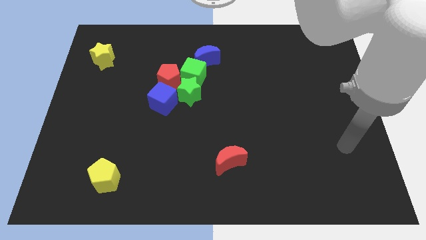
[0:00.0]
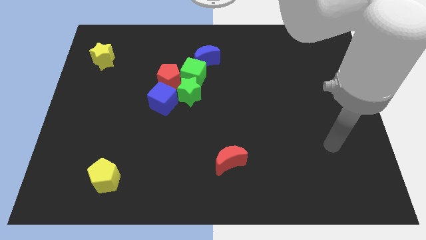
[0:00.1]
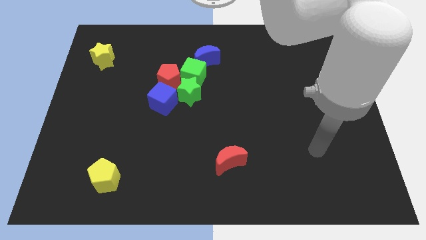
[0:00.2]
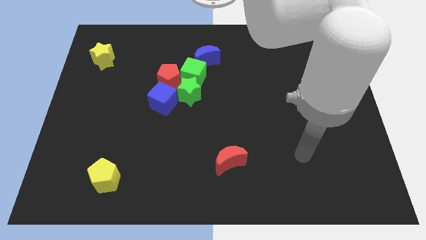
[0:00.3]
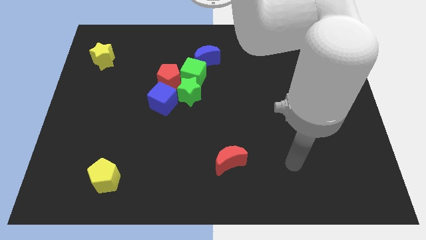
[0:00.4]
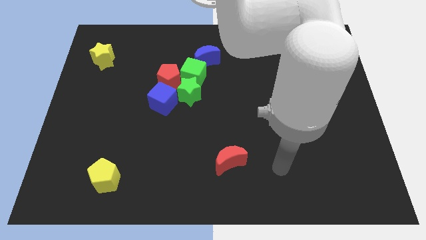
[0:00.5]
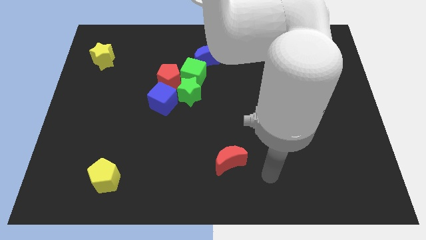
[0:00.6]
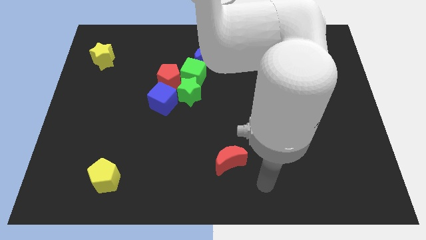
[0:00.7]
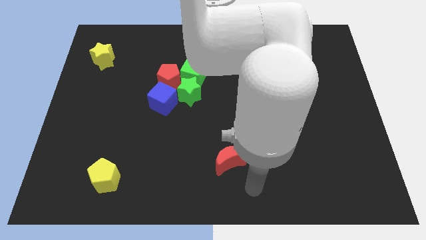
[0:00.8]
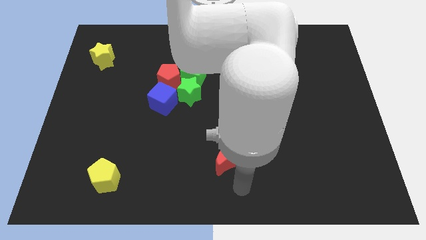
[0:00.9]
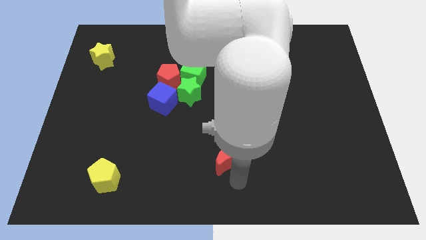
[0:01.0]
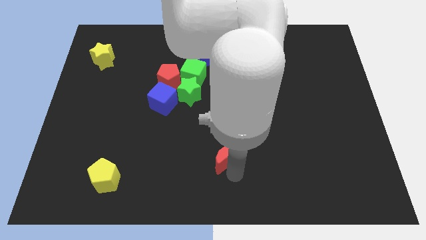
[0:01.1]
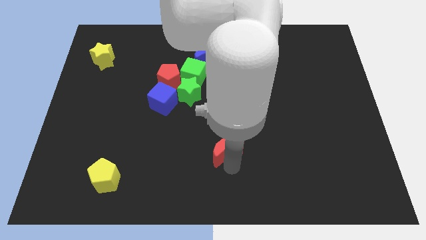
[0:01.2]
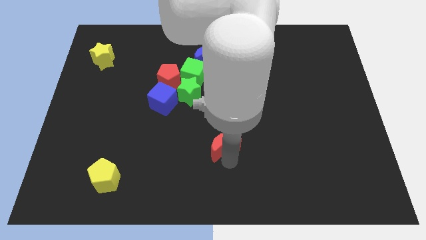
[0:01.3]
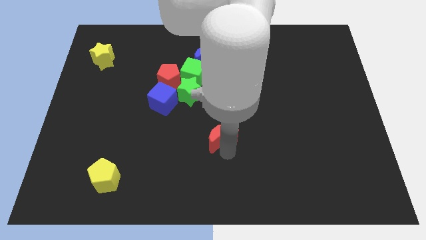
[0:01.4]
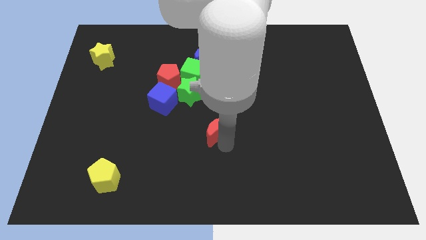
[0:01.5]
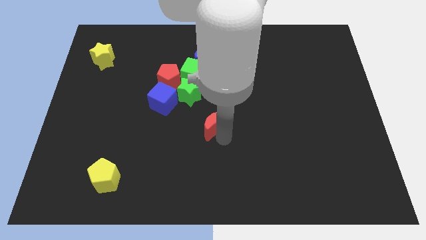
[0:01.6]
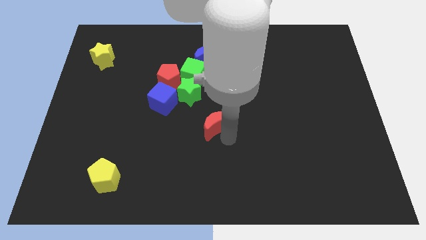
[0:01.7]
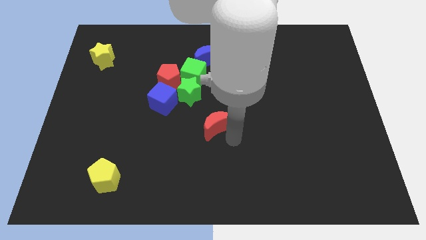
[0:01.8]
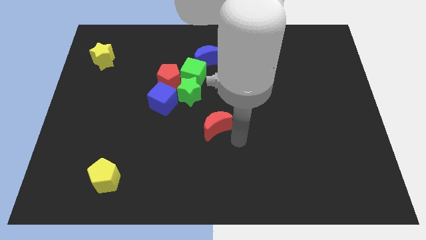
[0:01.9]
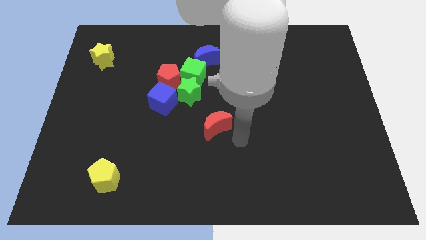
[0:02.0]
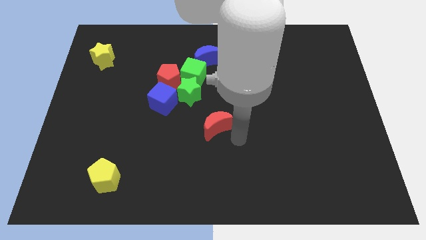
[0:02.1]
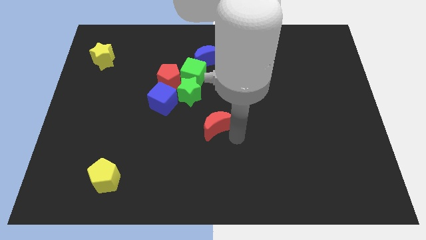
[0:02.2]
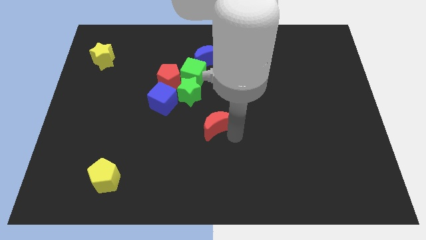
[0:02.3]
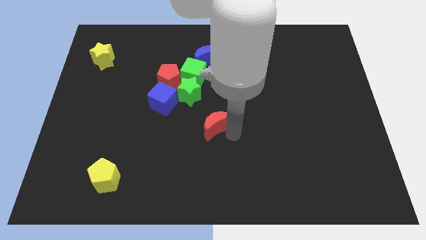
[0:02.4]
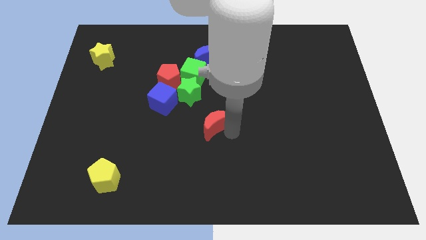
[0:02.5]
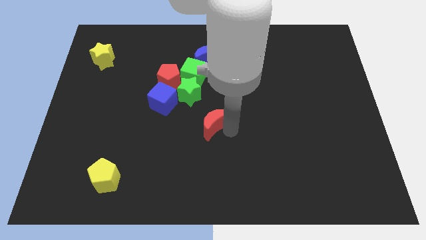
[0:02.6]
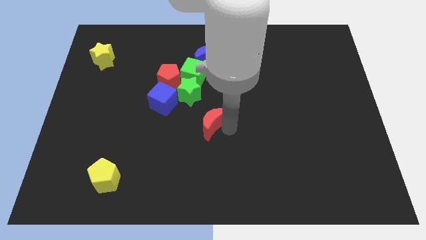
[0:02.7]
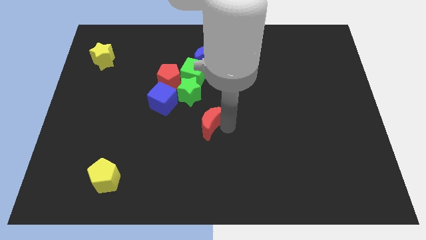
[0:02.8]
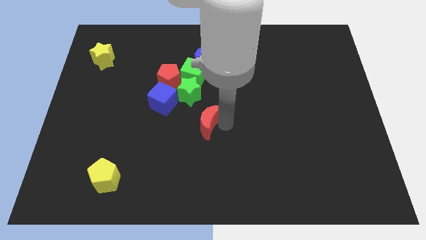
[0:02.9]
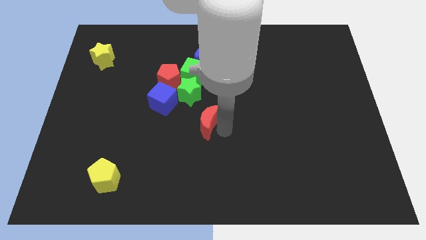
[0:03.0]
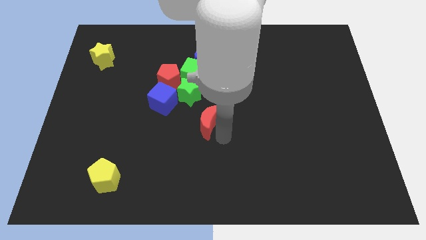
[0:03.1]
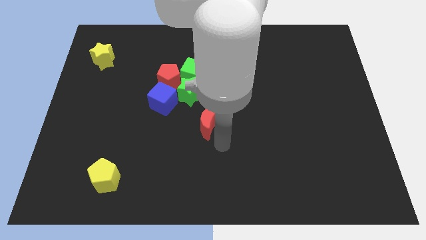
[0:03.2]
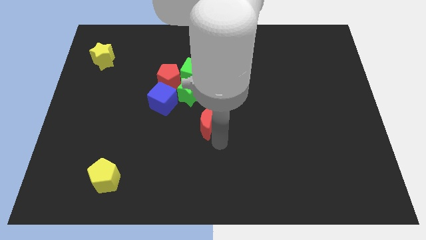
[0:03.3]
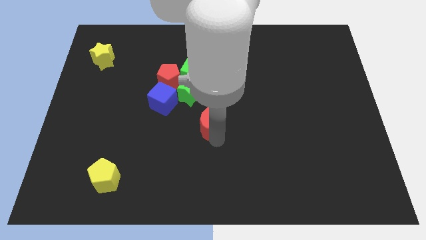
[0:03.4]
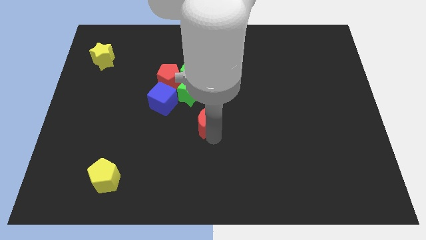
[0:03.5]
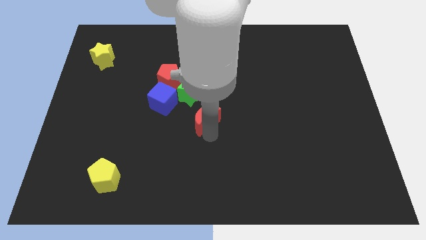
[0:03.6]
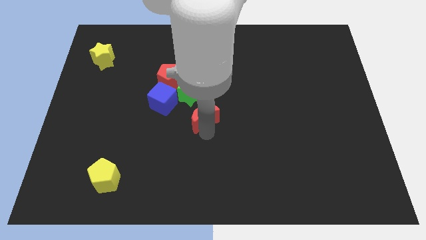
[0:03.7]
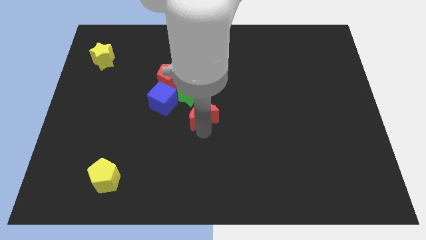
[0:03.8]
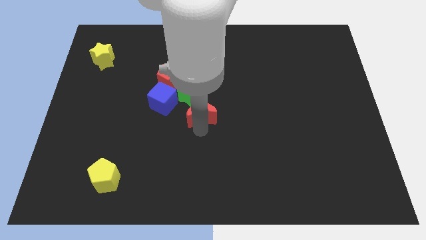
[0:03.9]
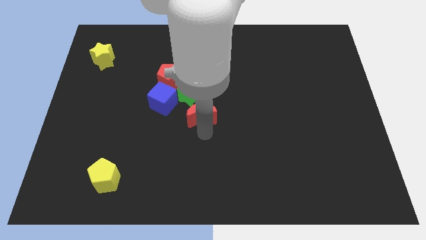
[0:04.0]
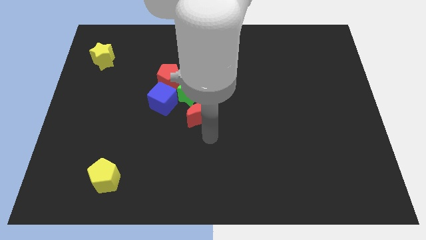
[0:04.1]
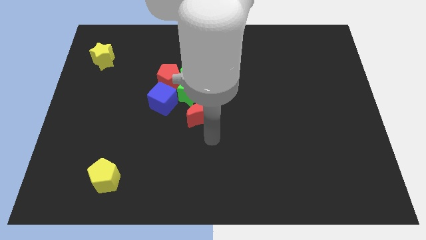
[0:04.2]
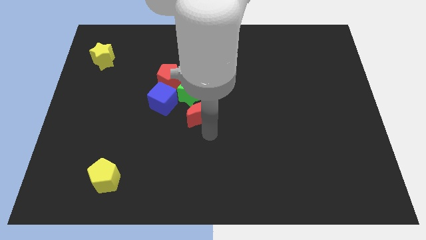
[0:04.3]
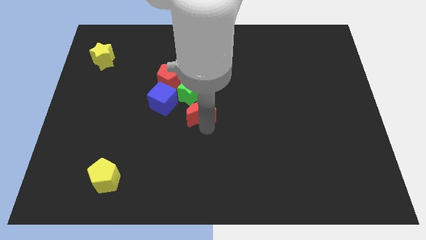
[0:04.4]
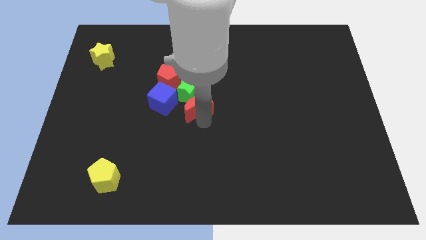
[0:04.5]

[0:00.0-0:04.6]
slide the red moon next to the green star

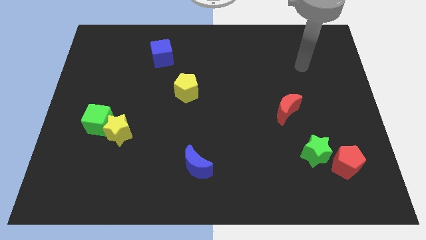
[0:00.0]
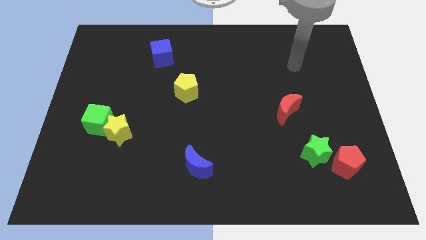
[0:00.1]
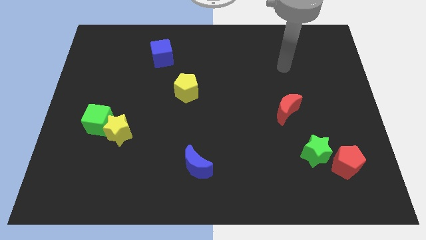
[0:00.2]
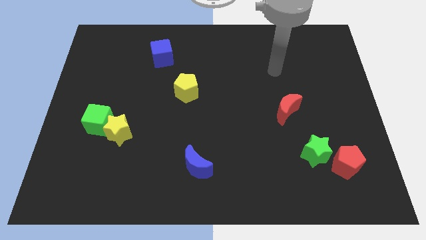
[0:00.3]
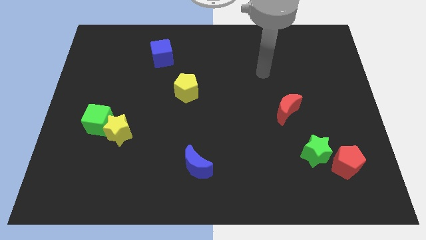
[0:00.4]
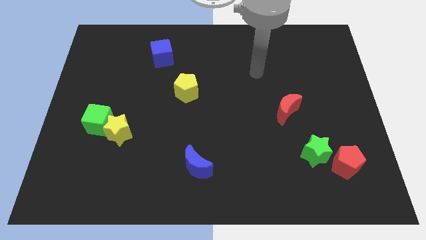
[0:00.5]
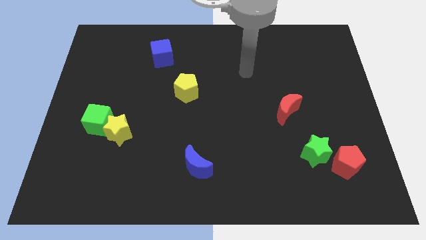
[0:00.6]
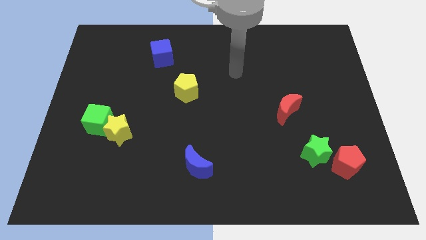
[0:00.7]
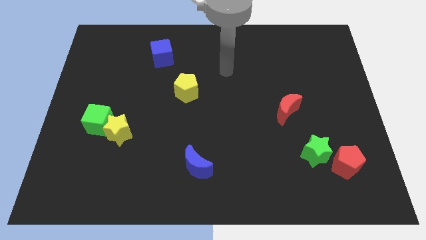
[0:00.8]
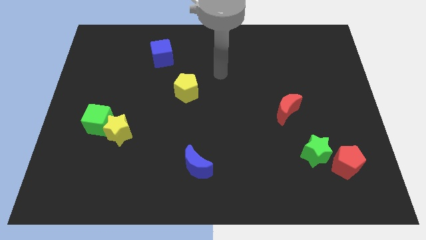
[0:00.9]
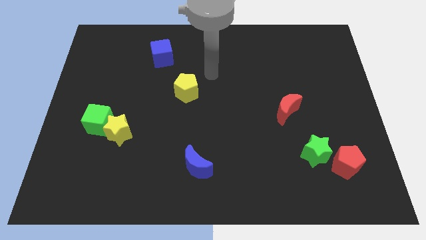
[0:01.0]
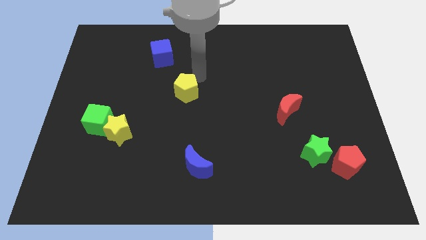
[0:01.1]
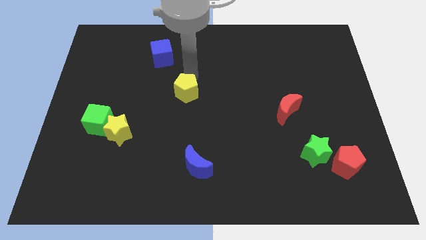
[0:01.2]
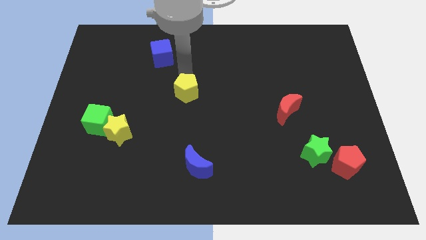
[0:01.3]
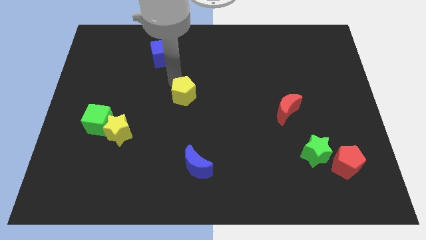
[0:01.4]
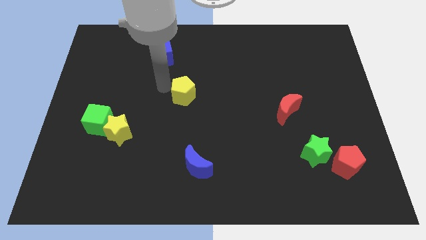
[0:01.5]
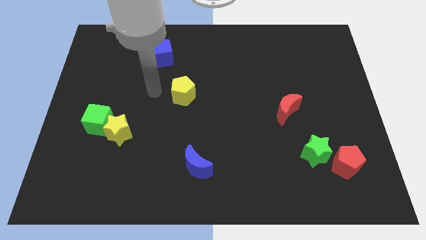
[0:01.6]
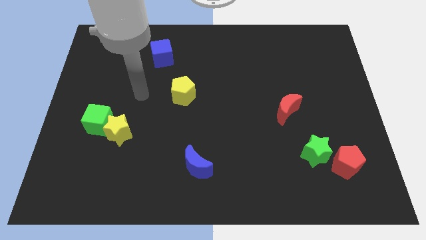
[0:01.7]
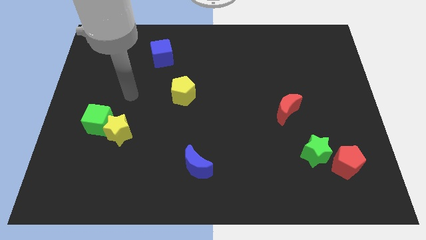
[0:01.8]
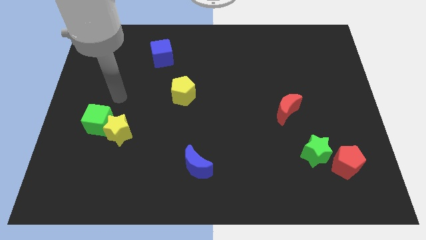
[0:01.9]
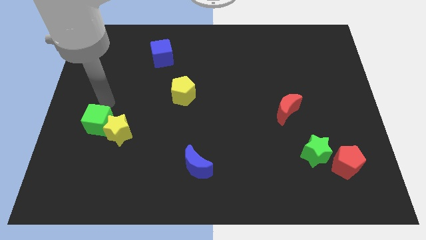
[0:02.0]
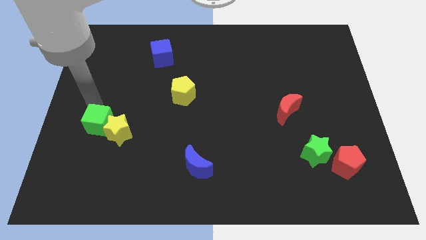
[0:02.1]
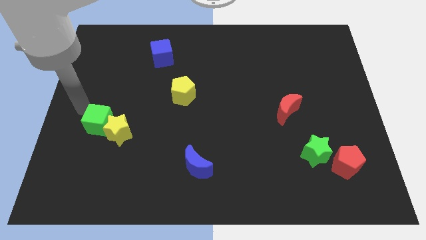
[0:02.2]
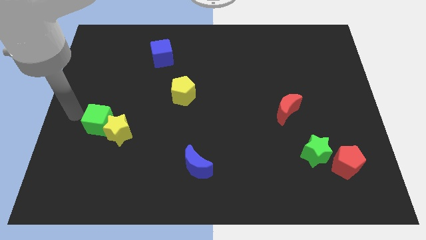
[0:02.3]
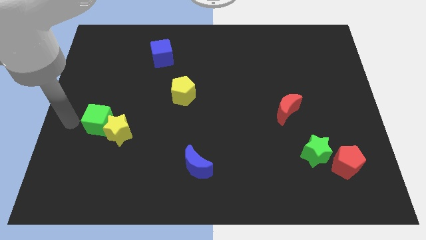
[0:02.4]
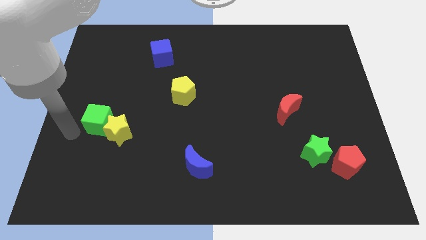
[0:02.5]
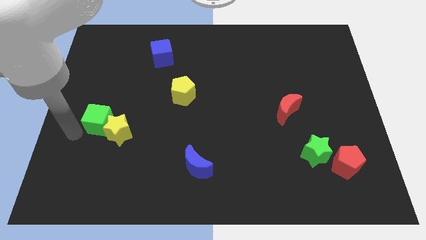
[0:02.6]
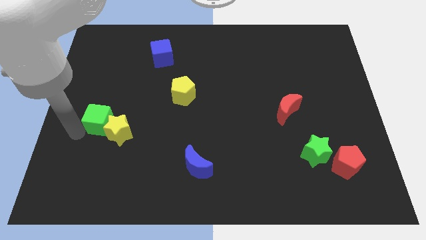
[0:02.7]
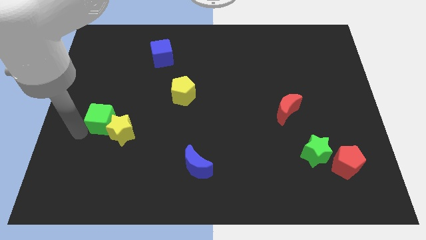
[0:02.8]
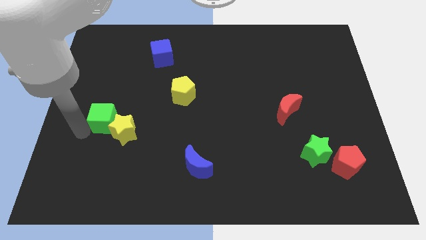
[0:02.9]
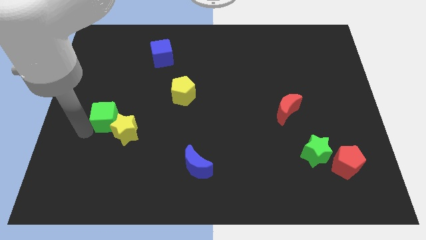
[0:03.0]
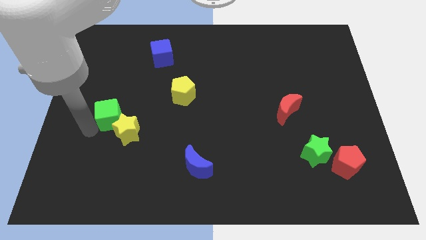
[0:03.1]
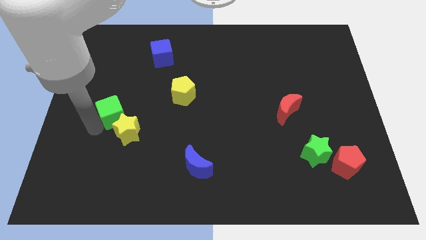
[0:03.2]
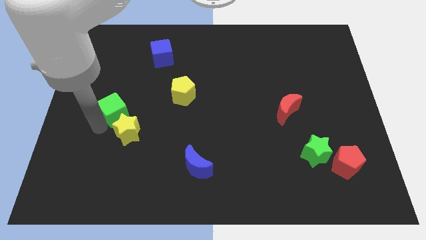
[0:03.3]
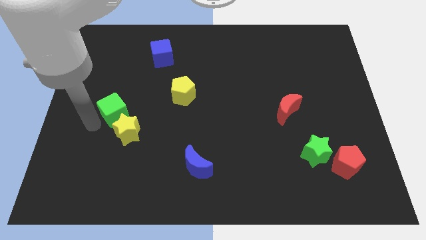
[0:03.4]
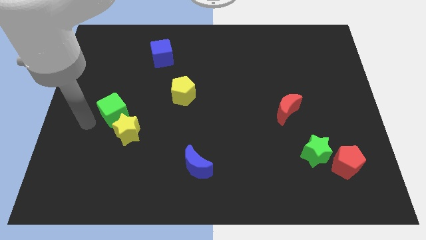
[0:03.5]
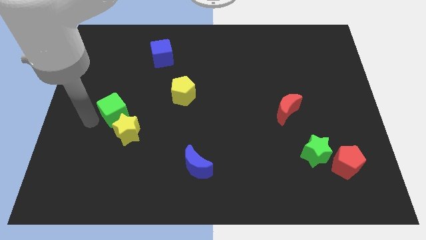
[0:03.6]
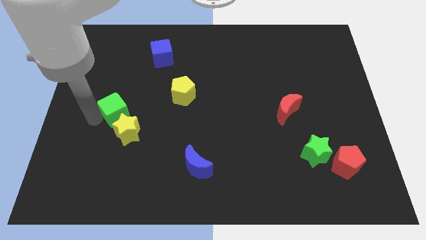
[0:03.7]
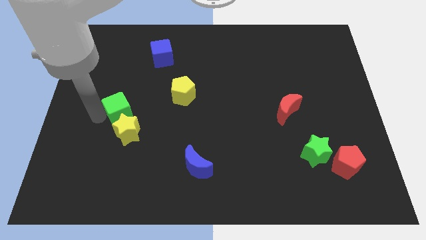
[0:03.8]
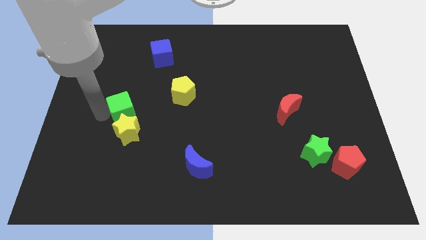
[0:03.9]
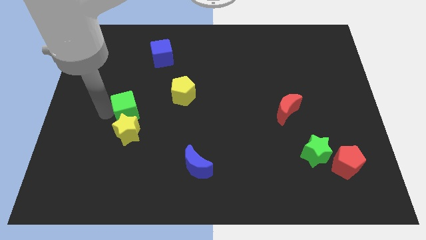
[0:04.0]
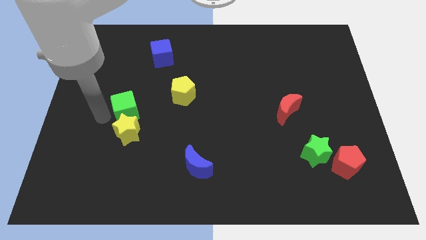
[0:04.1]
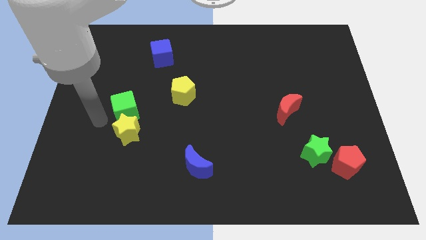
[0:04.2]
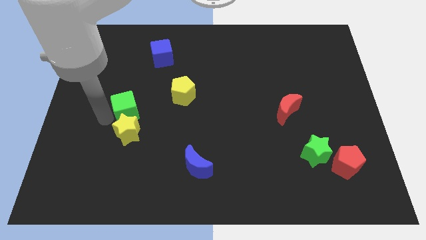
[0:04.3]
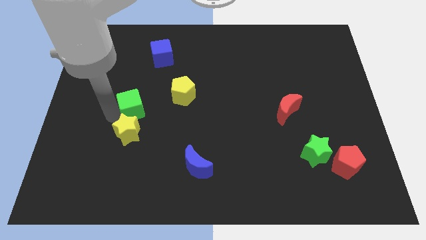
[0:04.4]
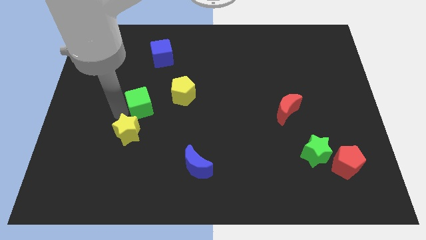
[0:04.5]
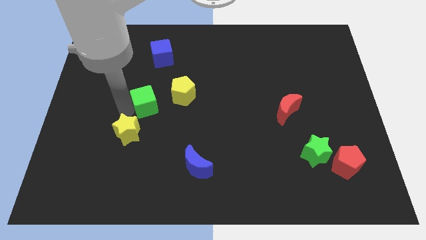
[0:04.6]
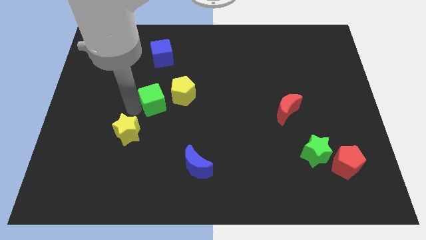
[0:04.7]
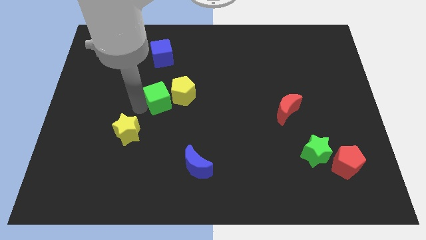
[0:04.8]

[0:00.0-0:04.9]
move the green cube close to the yellow pentagon
